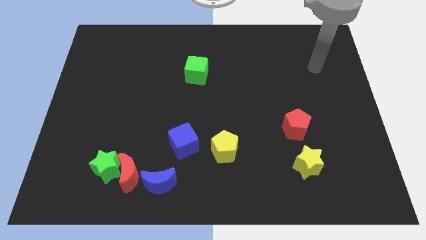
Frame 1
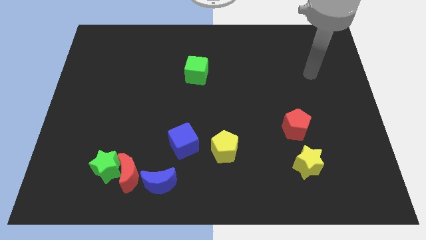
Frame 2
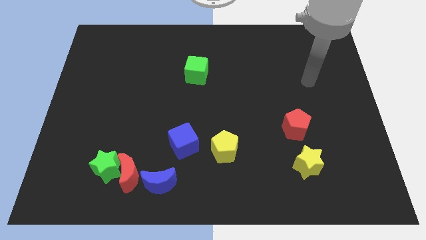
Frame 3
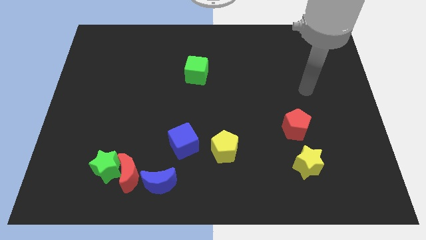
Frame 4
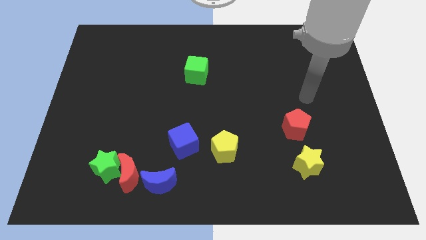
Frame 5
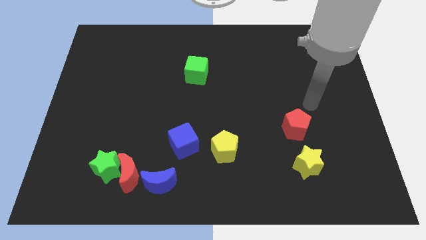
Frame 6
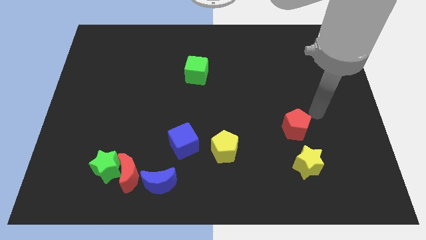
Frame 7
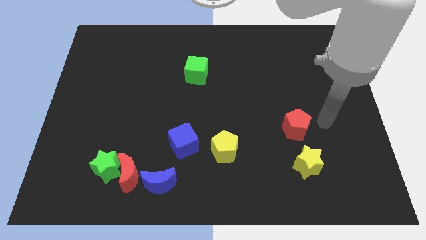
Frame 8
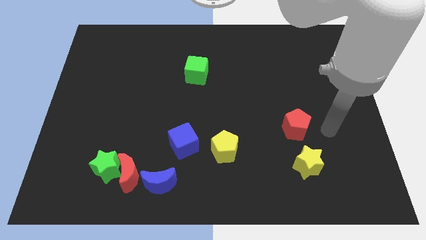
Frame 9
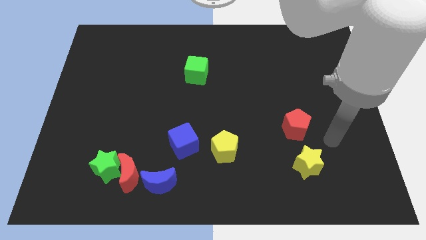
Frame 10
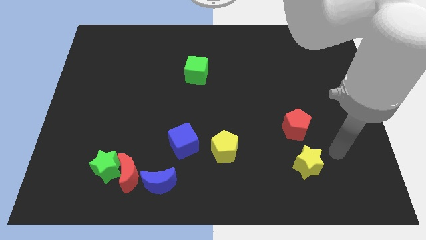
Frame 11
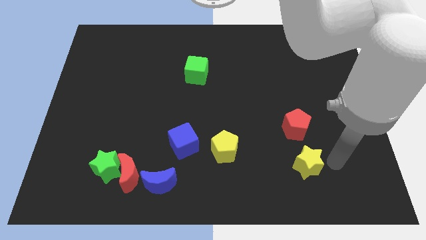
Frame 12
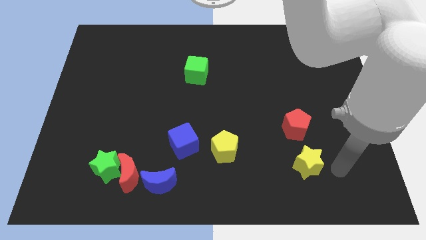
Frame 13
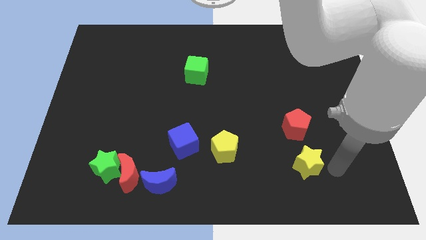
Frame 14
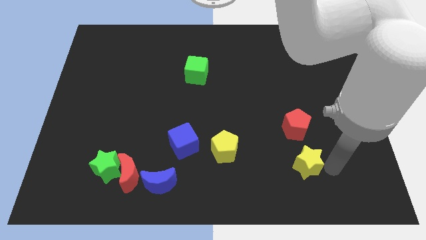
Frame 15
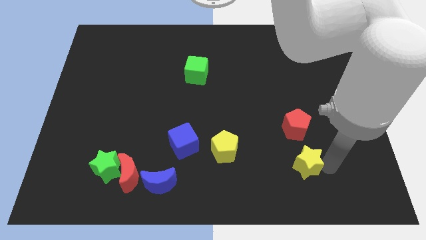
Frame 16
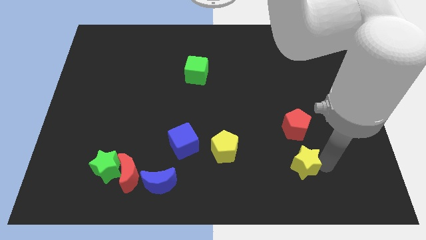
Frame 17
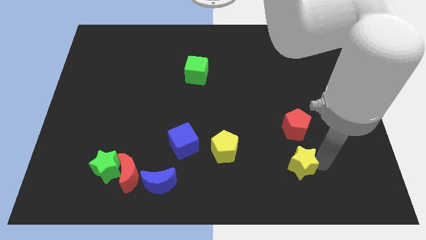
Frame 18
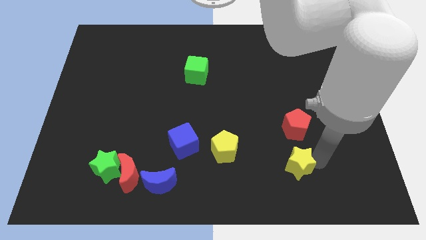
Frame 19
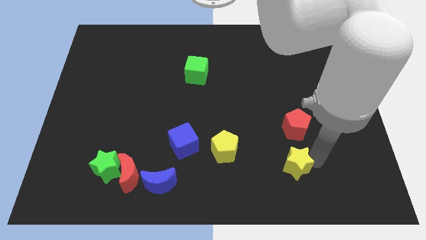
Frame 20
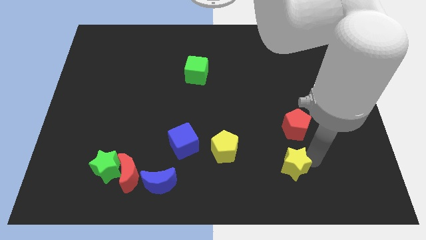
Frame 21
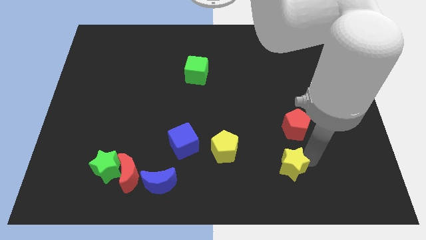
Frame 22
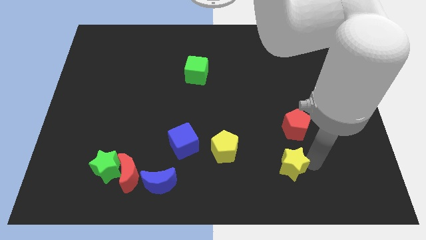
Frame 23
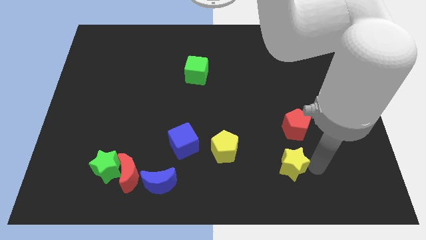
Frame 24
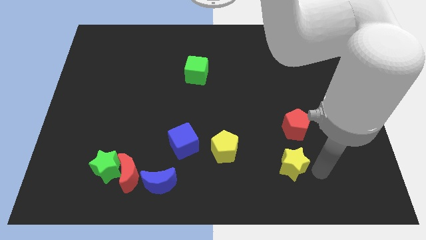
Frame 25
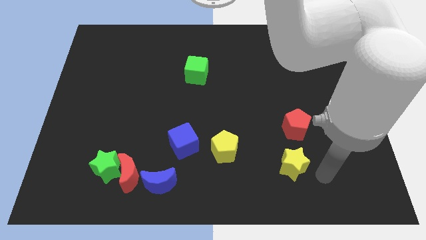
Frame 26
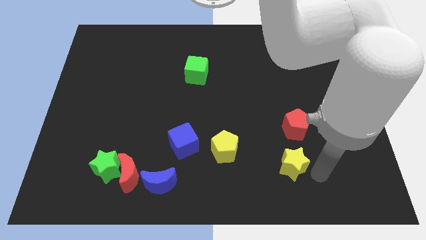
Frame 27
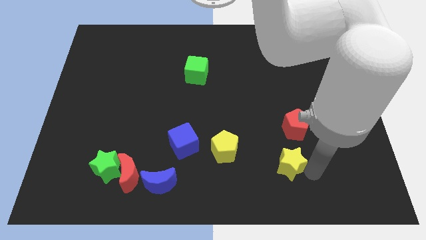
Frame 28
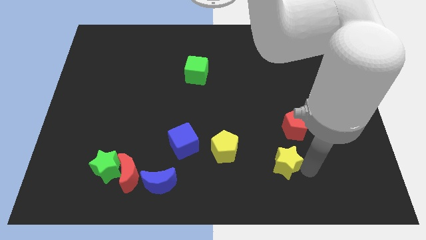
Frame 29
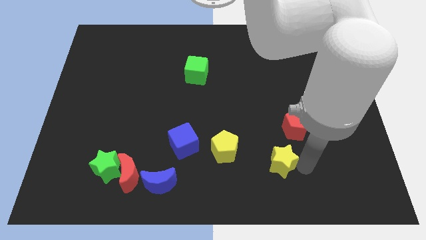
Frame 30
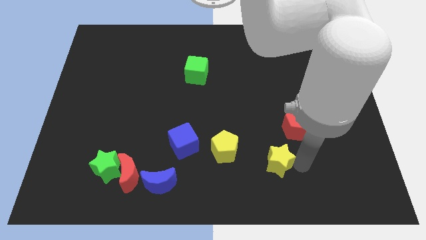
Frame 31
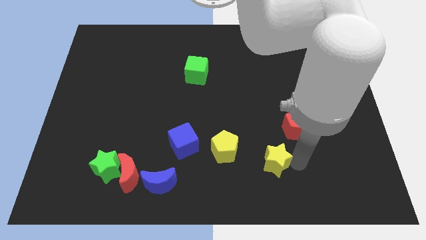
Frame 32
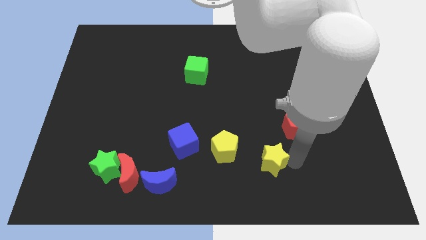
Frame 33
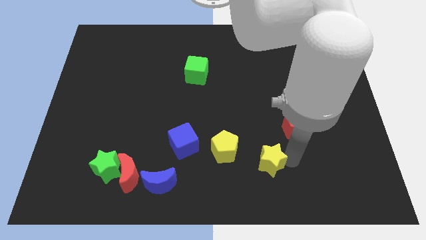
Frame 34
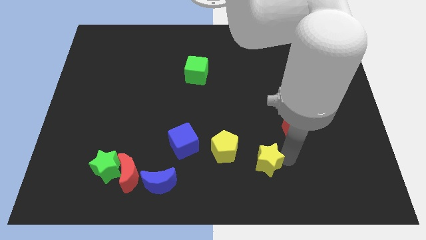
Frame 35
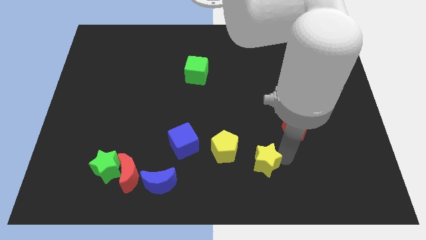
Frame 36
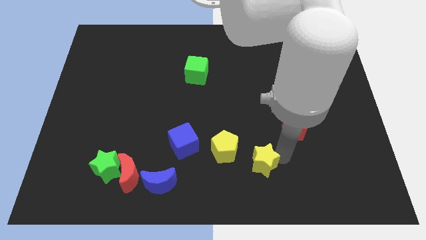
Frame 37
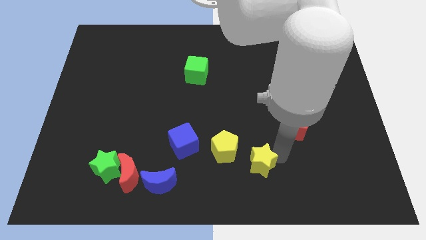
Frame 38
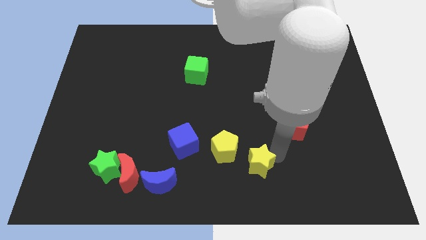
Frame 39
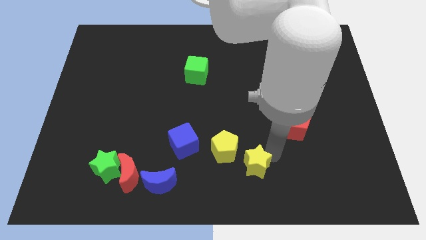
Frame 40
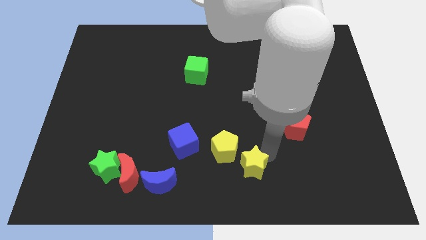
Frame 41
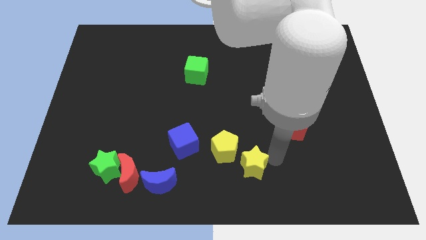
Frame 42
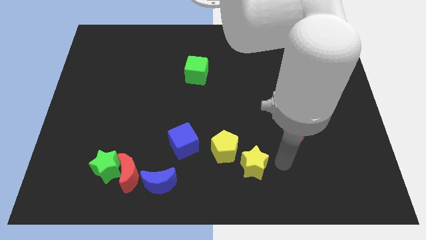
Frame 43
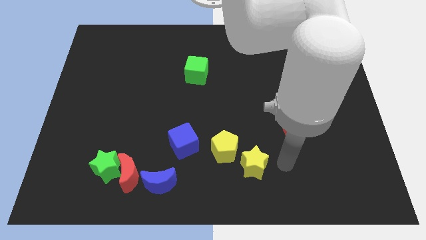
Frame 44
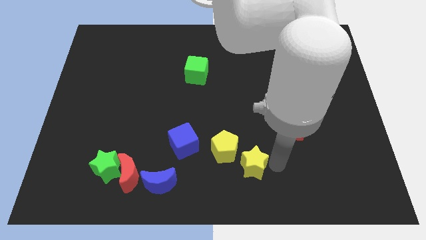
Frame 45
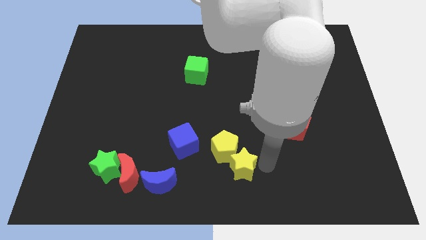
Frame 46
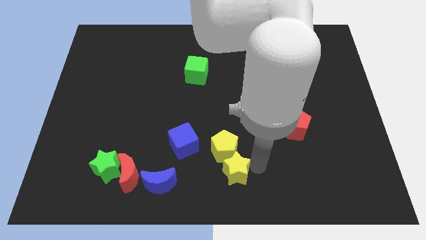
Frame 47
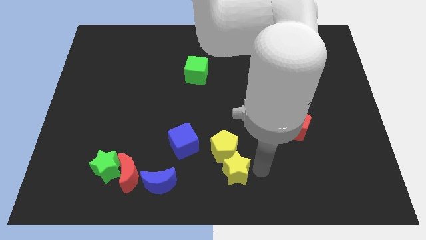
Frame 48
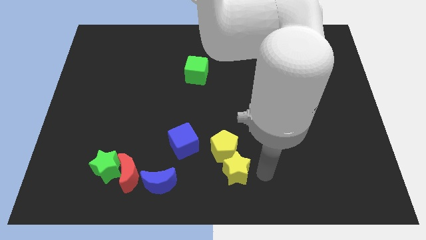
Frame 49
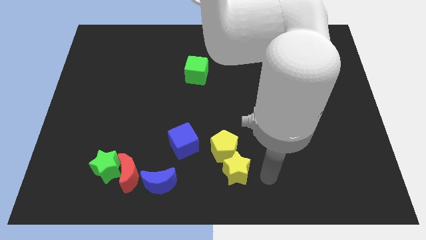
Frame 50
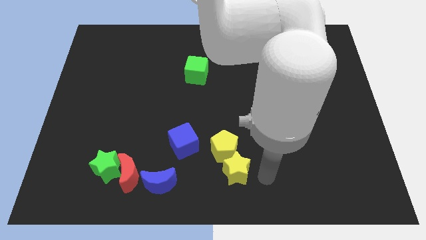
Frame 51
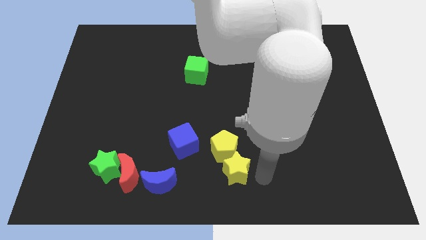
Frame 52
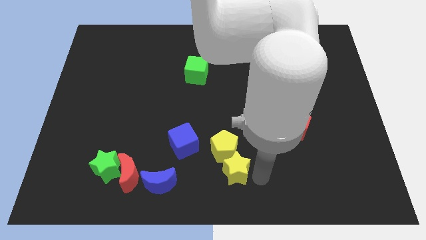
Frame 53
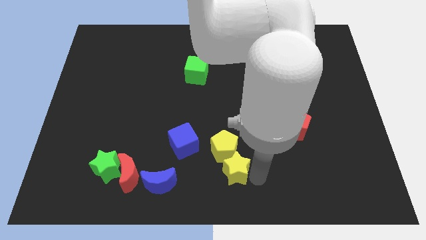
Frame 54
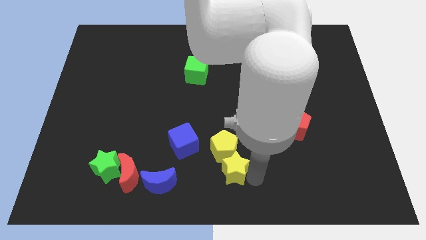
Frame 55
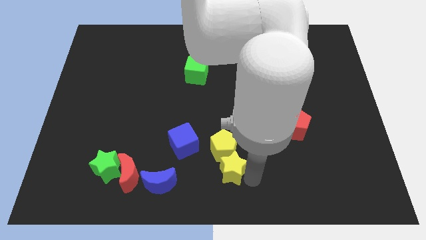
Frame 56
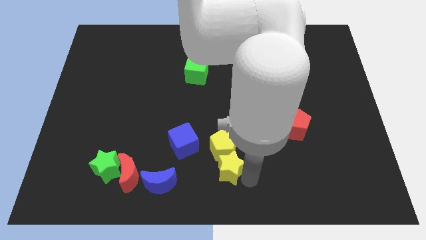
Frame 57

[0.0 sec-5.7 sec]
slide the yellow star to the bottom left of the yellow pentagon

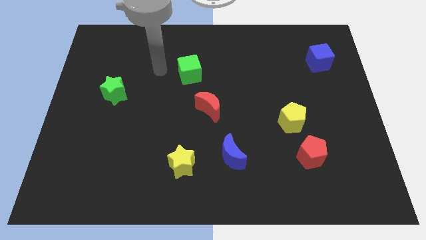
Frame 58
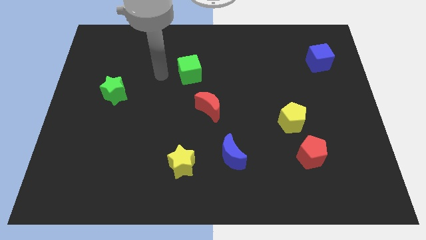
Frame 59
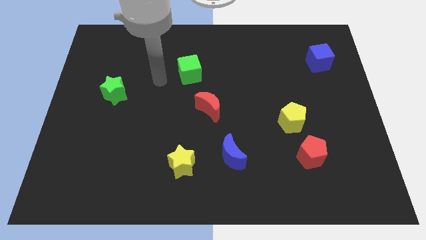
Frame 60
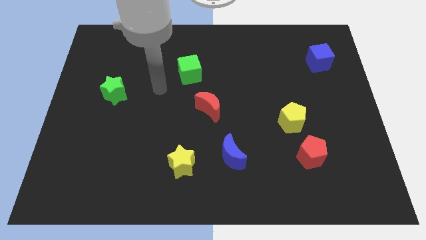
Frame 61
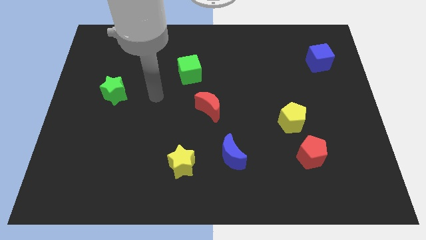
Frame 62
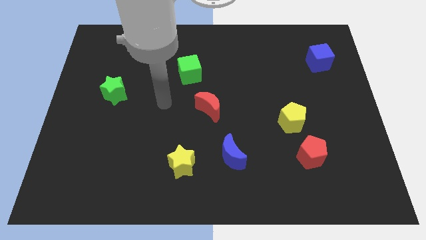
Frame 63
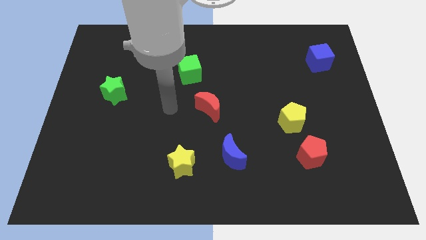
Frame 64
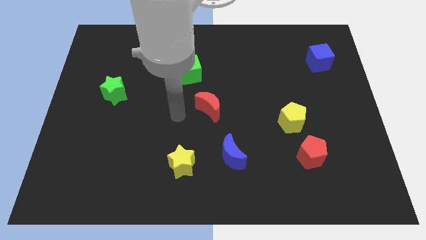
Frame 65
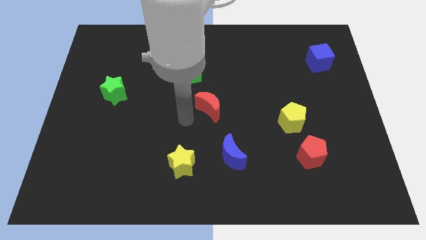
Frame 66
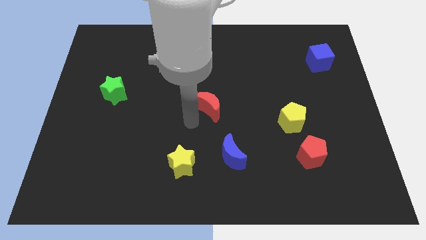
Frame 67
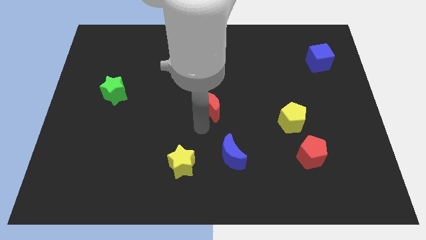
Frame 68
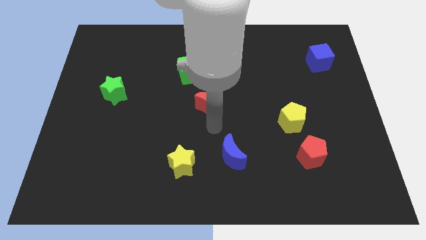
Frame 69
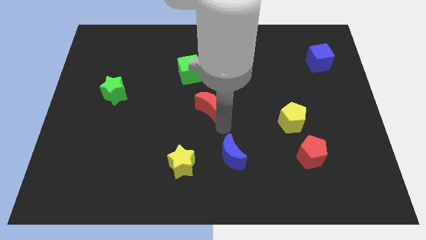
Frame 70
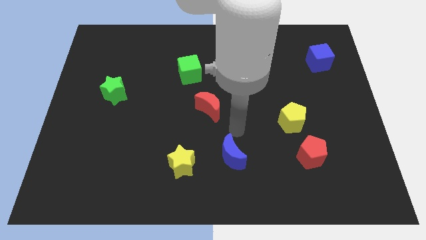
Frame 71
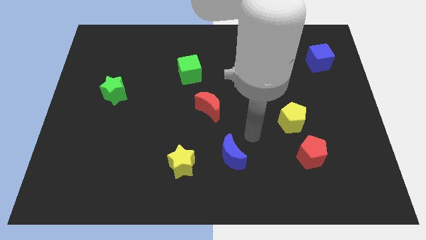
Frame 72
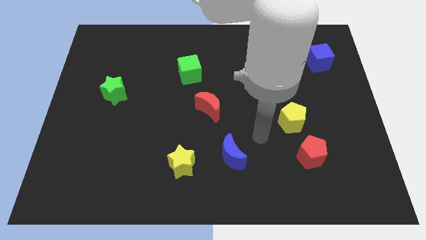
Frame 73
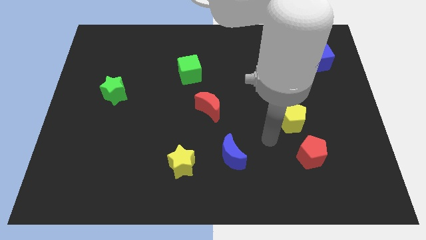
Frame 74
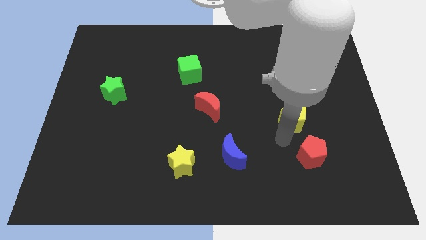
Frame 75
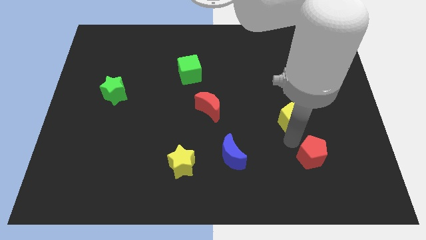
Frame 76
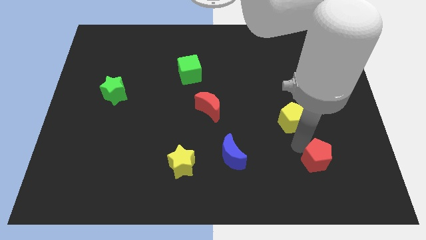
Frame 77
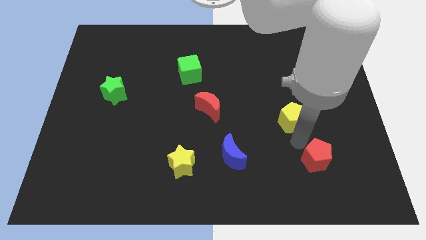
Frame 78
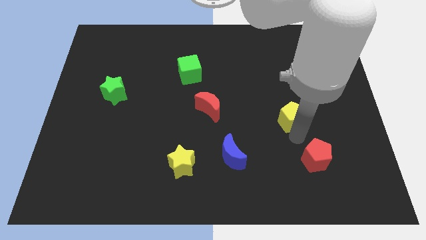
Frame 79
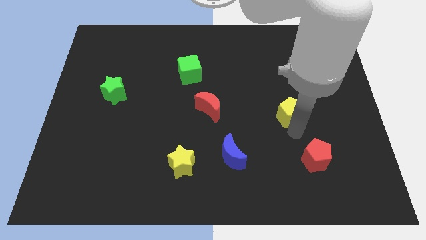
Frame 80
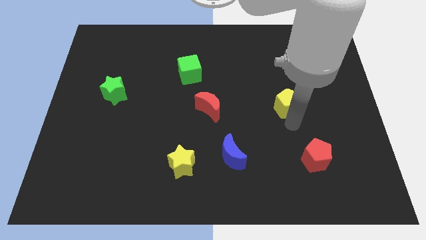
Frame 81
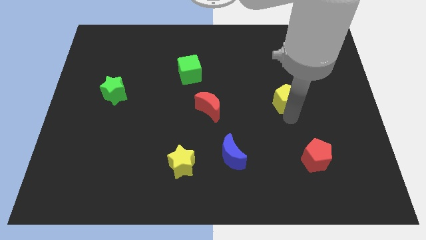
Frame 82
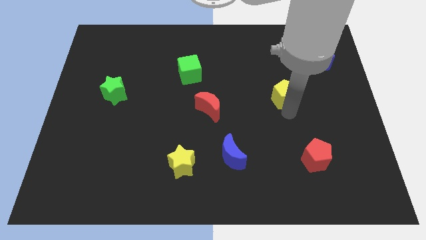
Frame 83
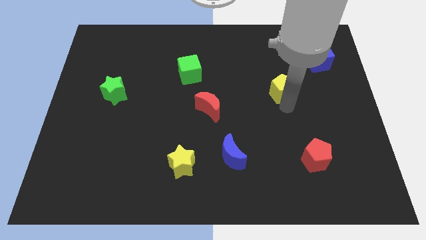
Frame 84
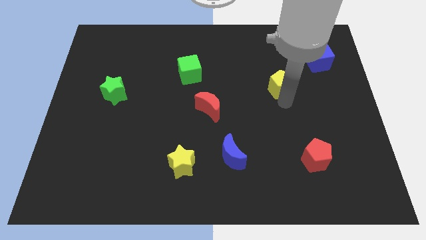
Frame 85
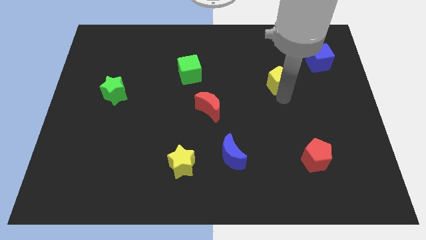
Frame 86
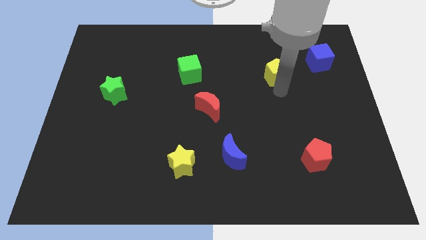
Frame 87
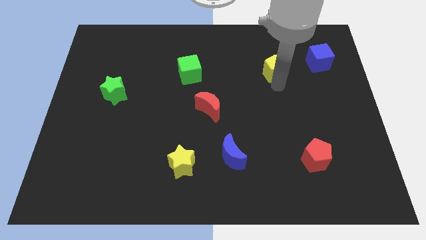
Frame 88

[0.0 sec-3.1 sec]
put the yellow pentagon to the left side of the blue cube
